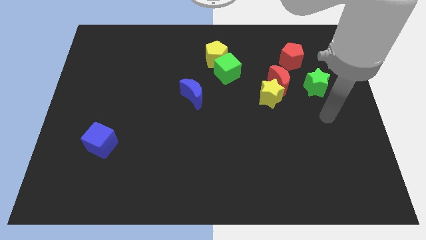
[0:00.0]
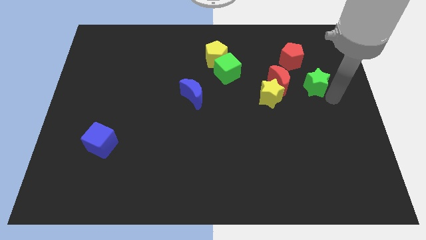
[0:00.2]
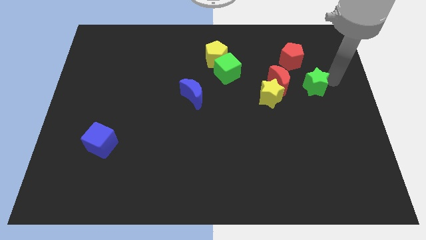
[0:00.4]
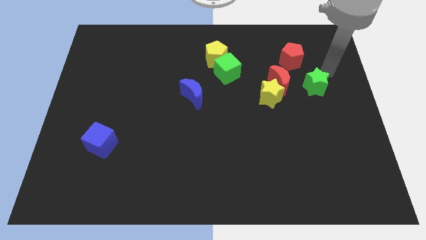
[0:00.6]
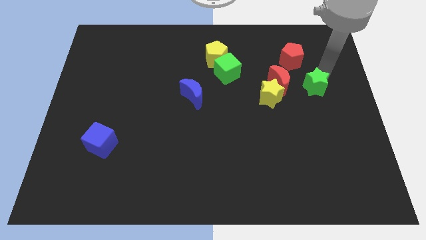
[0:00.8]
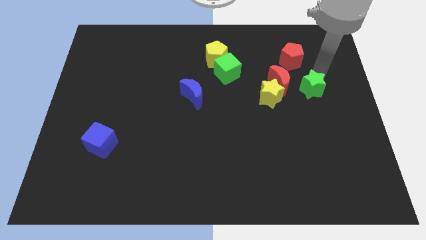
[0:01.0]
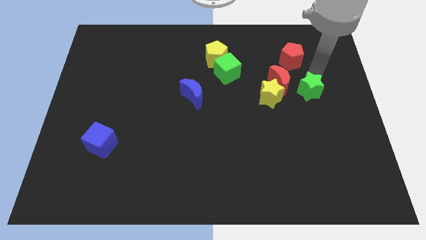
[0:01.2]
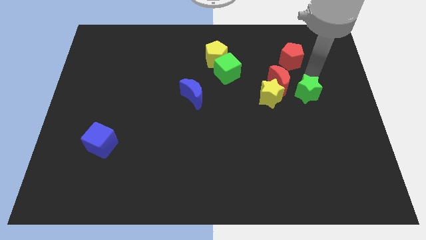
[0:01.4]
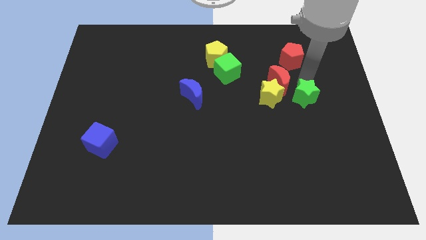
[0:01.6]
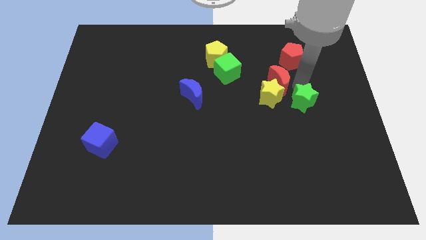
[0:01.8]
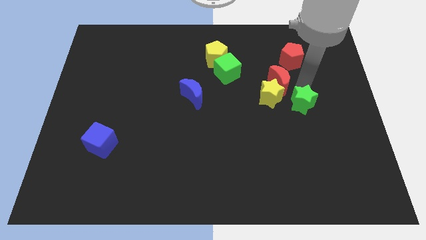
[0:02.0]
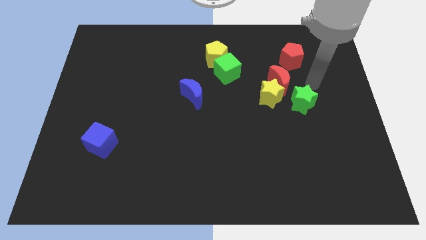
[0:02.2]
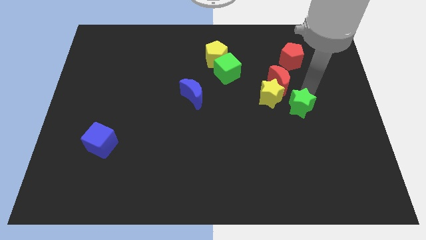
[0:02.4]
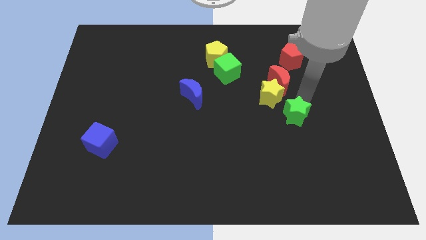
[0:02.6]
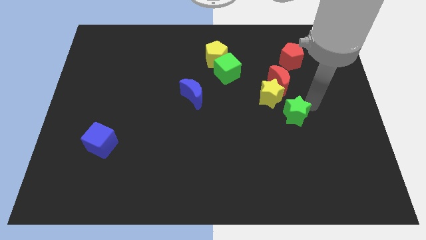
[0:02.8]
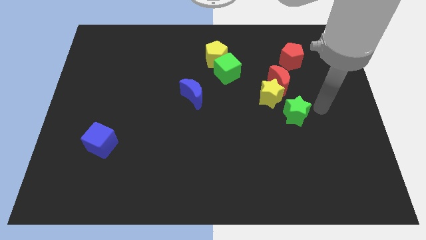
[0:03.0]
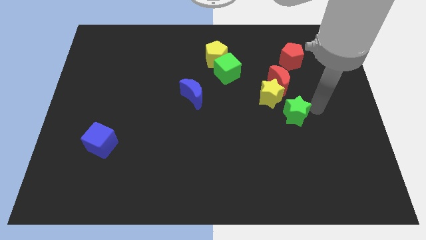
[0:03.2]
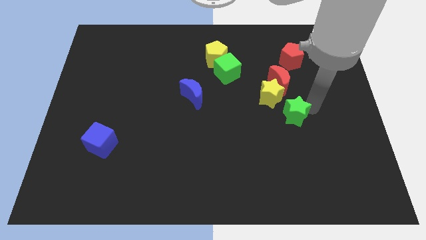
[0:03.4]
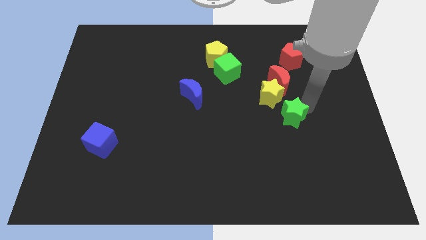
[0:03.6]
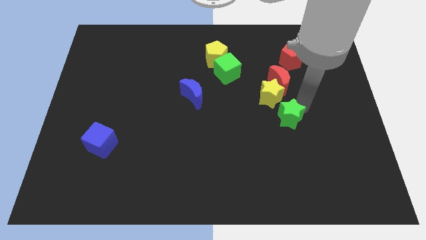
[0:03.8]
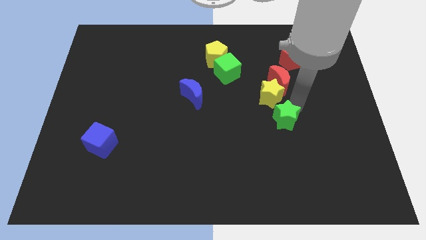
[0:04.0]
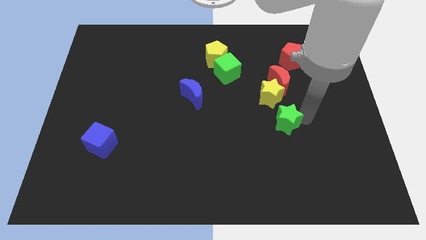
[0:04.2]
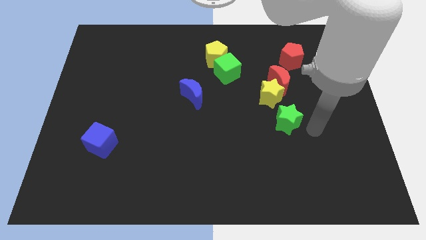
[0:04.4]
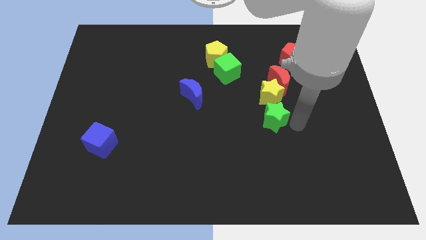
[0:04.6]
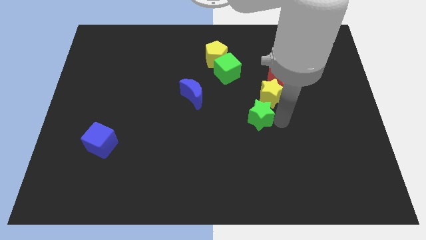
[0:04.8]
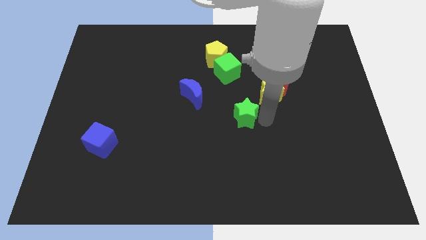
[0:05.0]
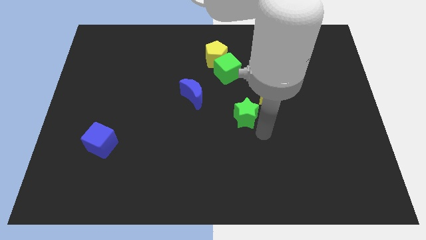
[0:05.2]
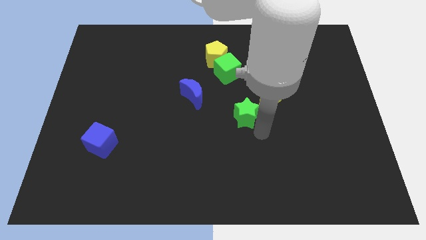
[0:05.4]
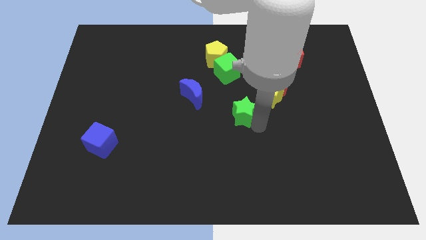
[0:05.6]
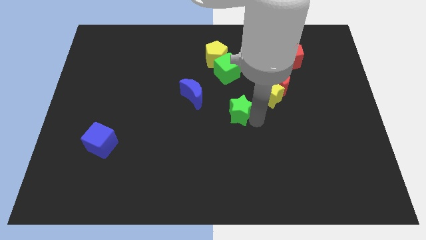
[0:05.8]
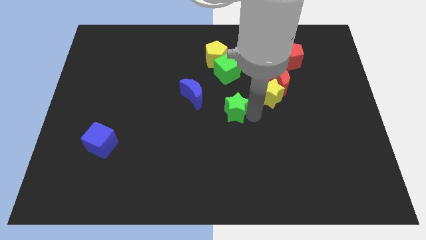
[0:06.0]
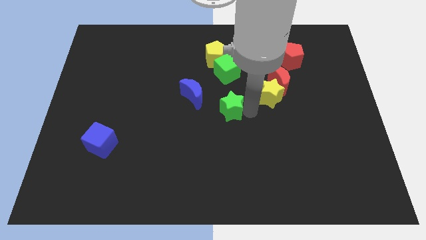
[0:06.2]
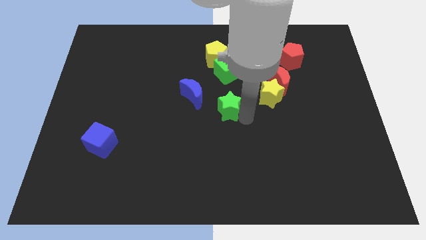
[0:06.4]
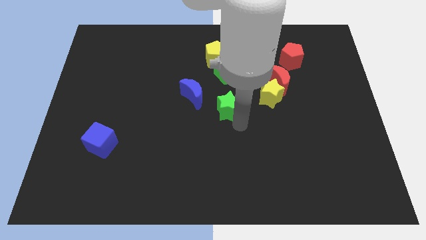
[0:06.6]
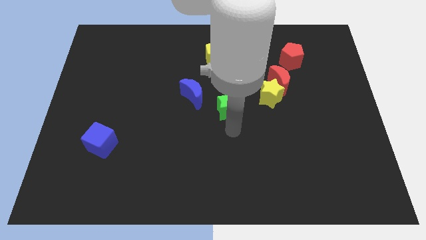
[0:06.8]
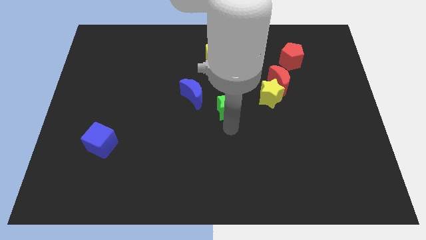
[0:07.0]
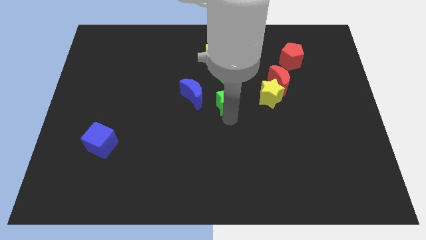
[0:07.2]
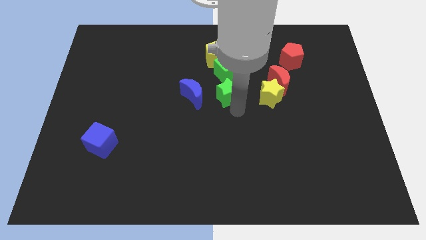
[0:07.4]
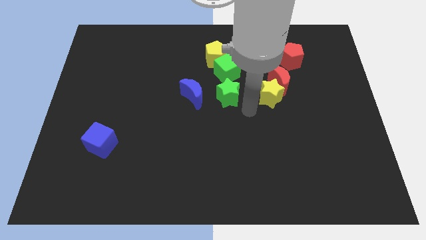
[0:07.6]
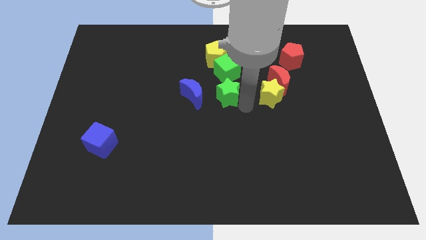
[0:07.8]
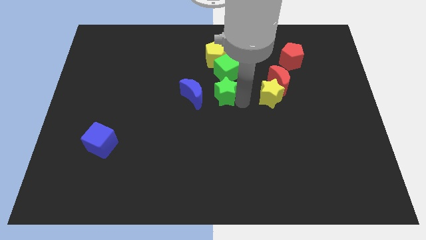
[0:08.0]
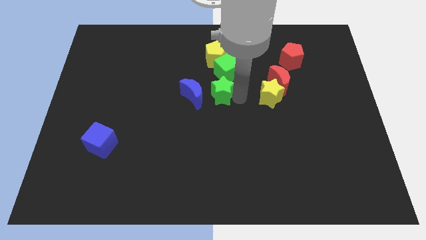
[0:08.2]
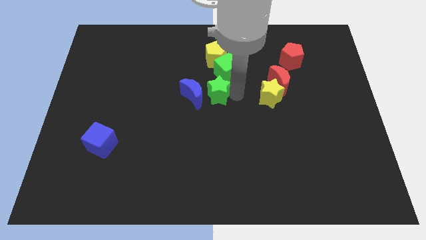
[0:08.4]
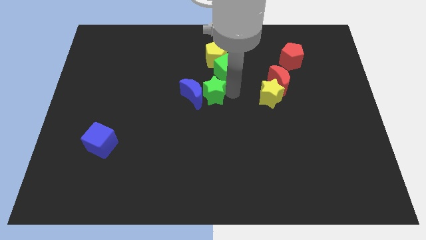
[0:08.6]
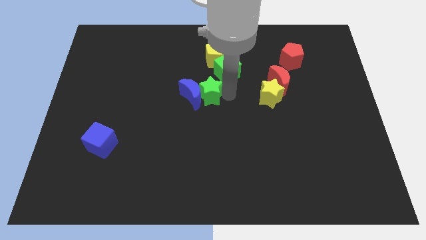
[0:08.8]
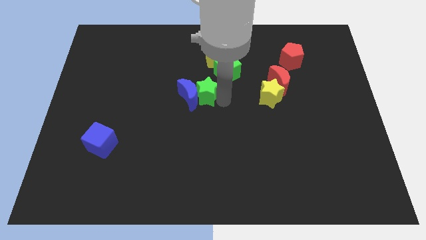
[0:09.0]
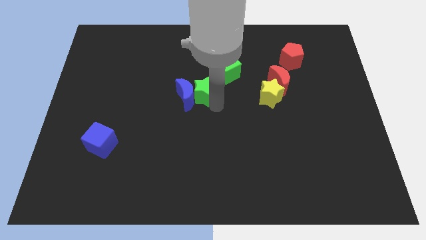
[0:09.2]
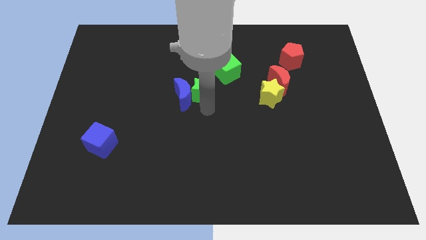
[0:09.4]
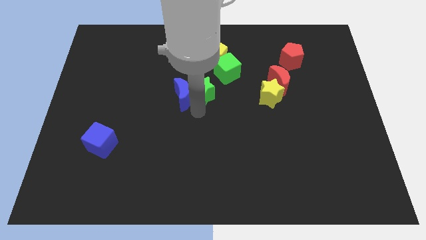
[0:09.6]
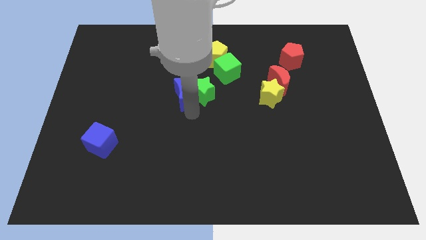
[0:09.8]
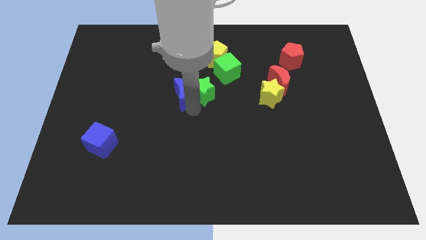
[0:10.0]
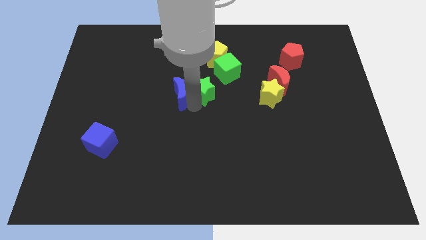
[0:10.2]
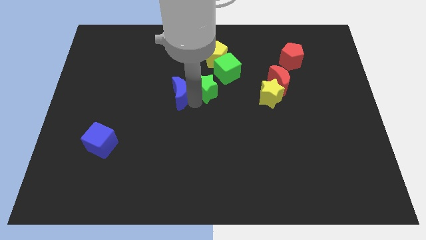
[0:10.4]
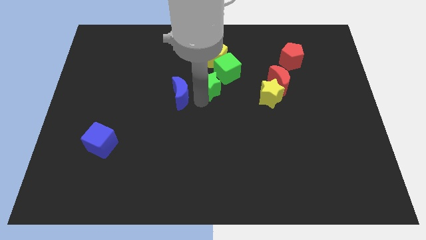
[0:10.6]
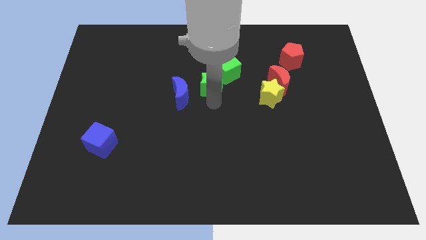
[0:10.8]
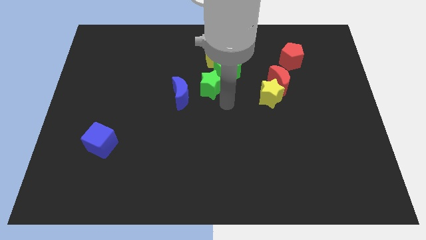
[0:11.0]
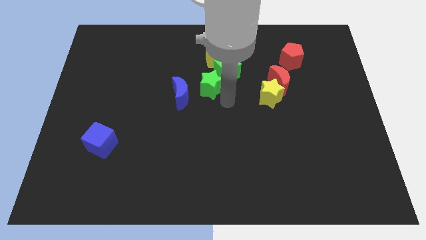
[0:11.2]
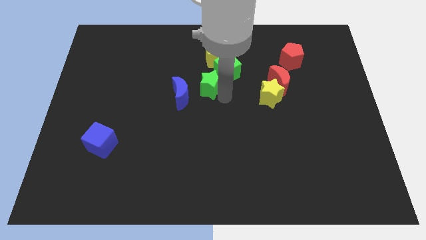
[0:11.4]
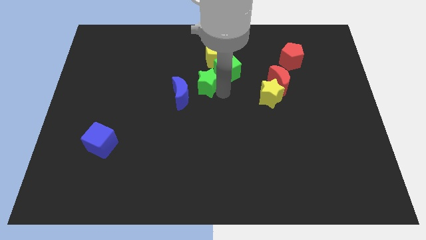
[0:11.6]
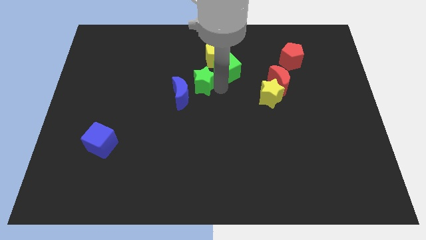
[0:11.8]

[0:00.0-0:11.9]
put the green star diagonally down and to the left of the yellow pentagon

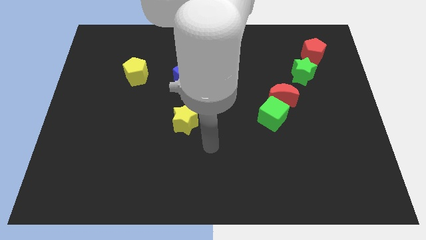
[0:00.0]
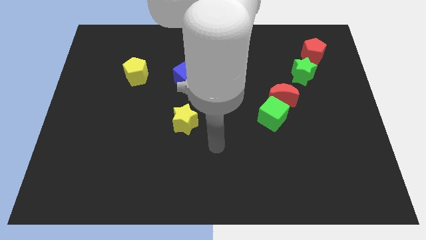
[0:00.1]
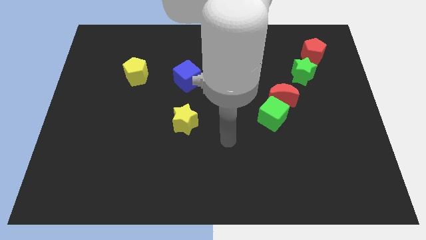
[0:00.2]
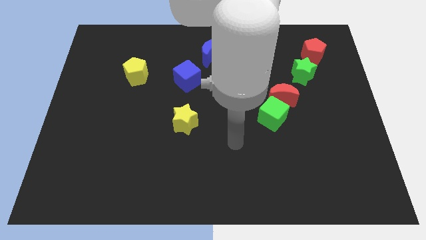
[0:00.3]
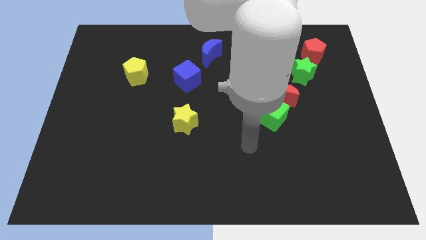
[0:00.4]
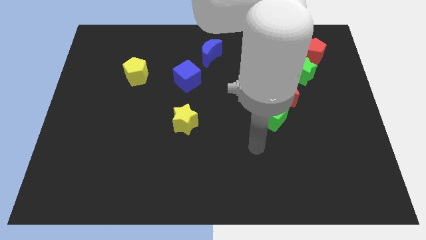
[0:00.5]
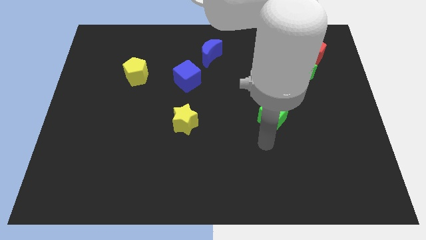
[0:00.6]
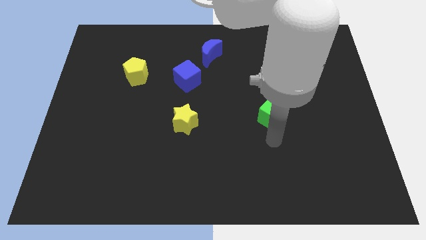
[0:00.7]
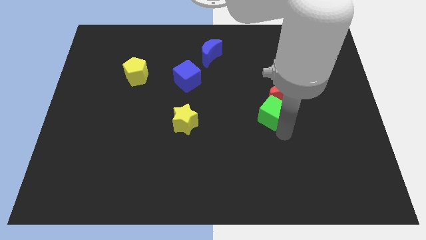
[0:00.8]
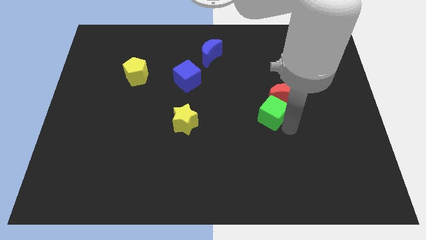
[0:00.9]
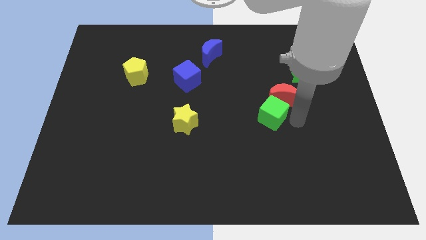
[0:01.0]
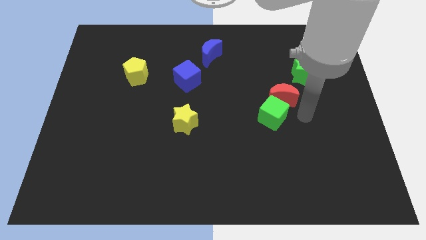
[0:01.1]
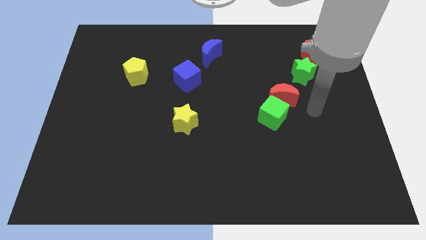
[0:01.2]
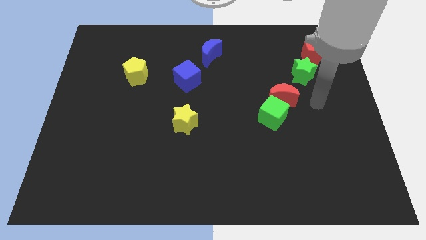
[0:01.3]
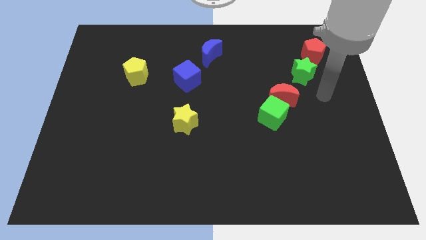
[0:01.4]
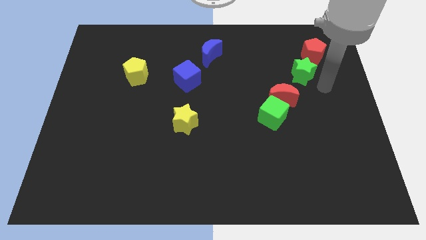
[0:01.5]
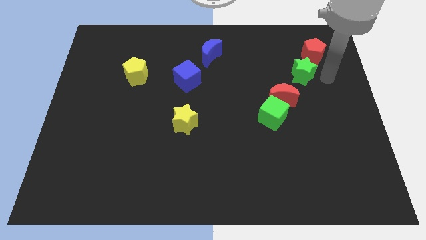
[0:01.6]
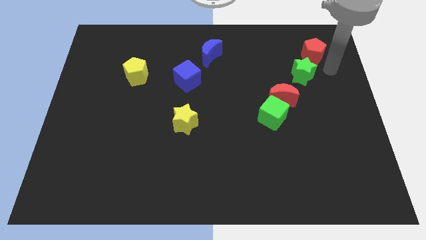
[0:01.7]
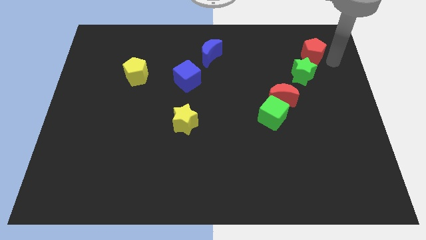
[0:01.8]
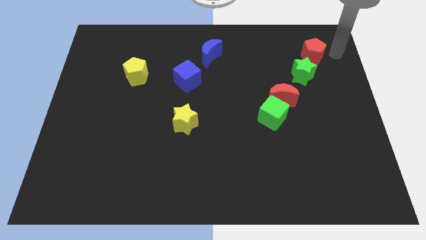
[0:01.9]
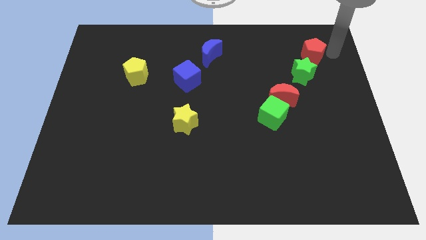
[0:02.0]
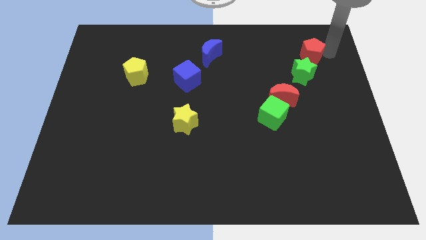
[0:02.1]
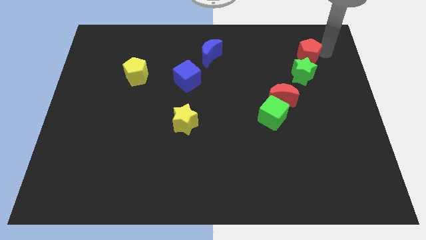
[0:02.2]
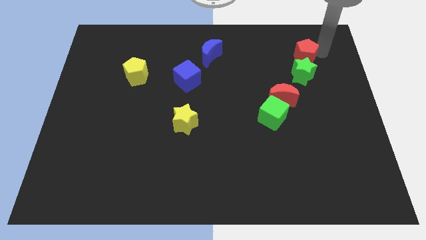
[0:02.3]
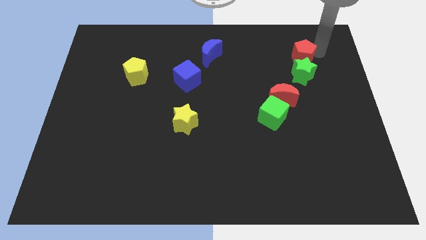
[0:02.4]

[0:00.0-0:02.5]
slide the red pentagon to the top left of the green star
